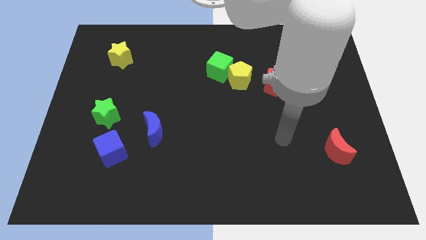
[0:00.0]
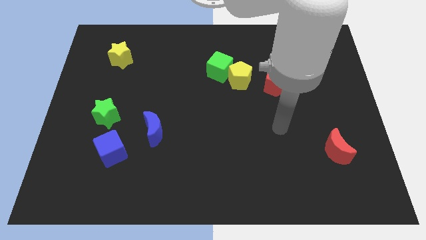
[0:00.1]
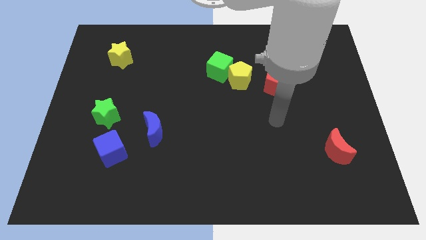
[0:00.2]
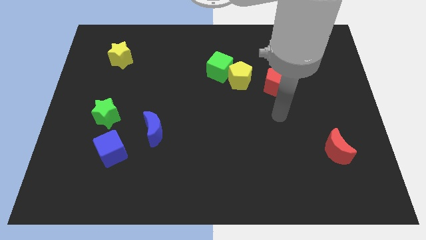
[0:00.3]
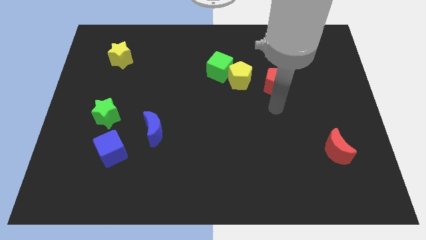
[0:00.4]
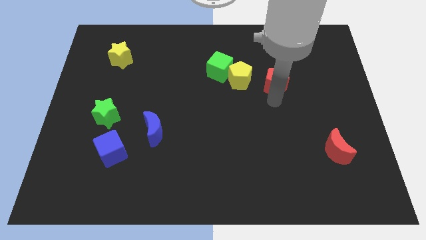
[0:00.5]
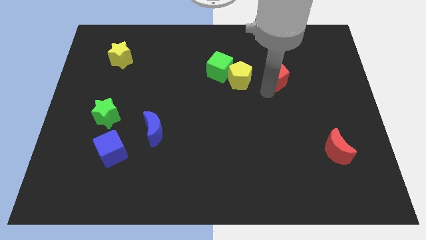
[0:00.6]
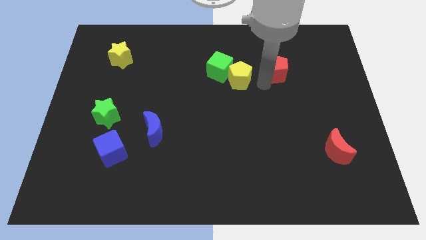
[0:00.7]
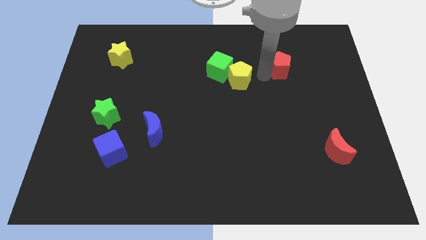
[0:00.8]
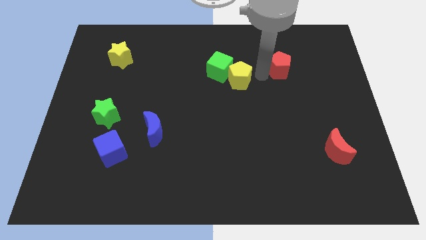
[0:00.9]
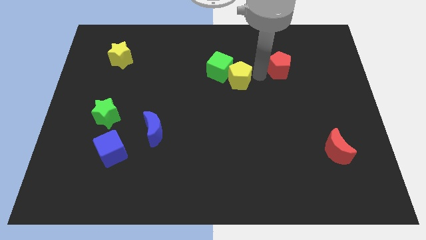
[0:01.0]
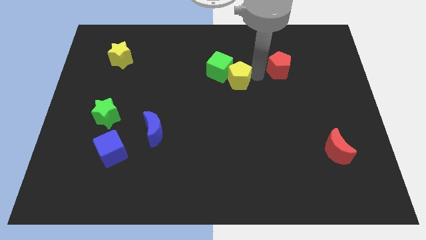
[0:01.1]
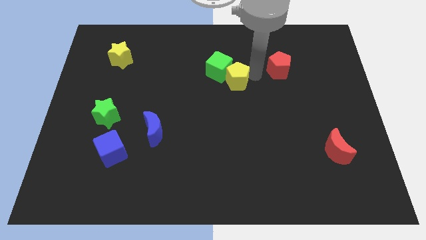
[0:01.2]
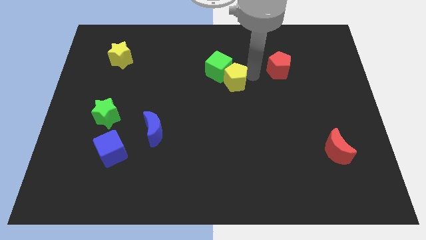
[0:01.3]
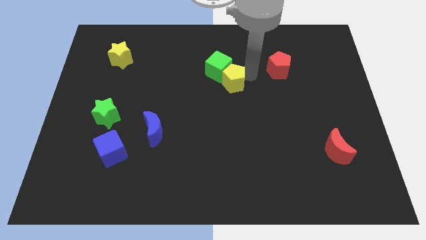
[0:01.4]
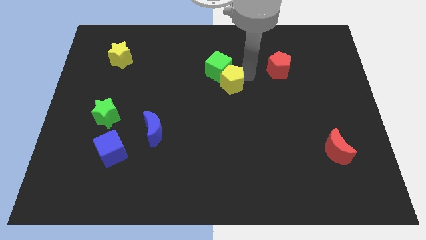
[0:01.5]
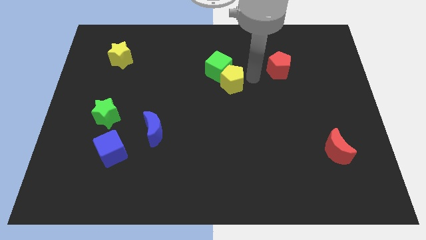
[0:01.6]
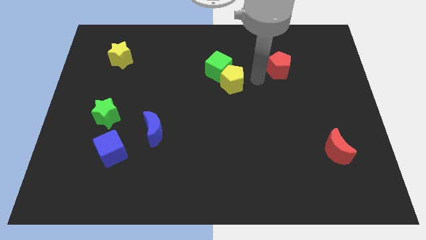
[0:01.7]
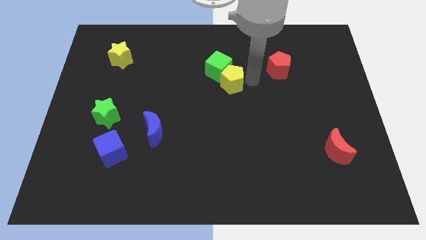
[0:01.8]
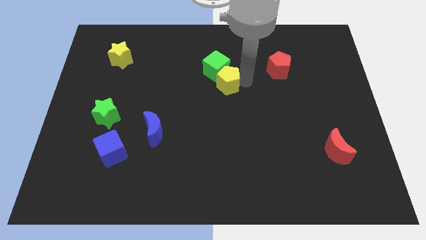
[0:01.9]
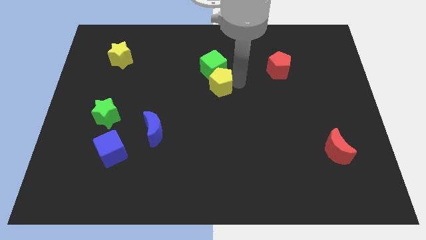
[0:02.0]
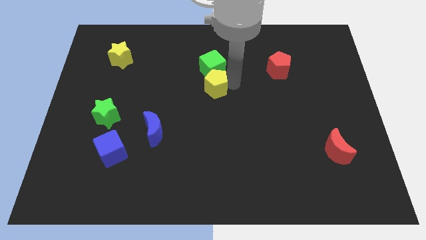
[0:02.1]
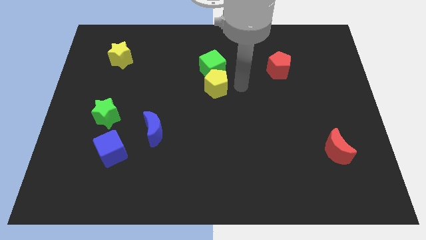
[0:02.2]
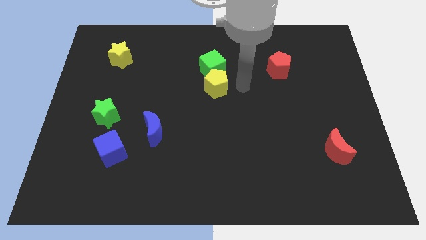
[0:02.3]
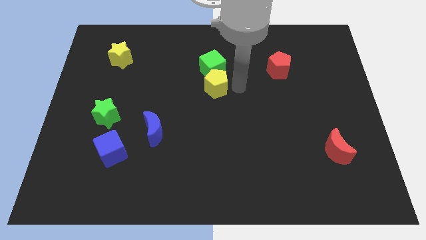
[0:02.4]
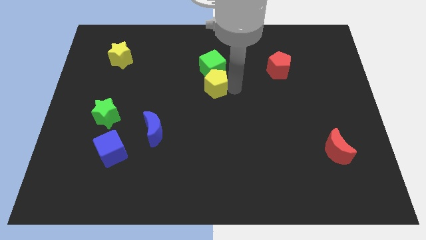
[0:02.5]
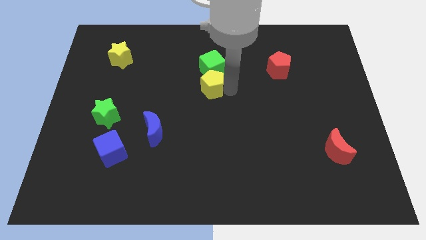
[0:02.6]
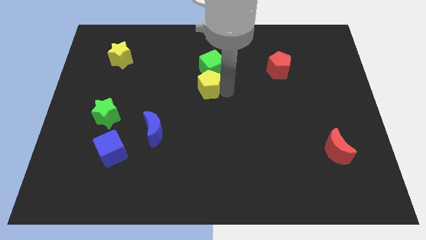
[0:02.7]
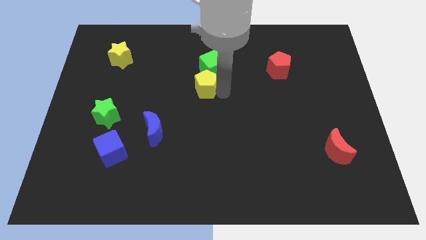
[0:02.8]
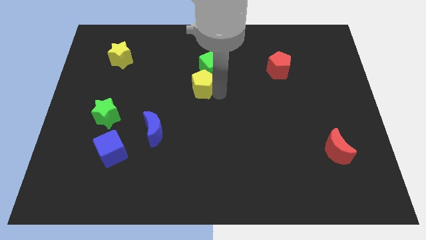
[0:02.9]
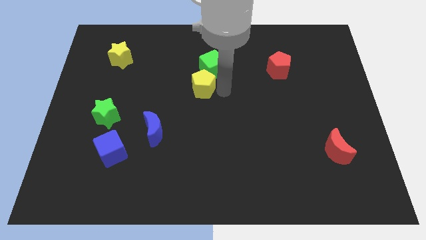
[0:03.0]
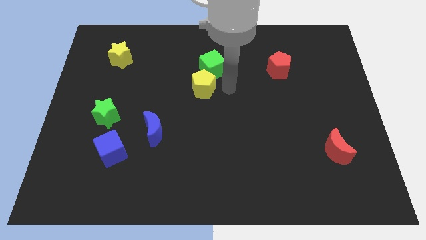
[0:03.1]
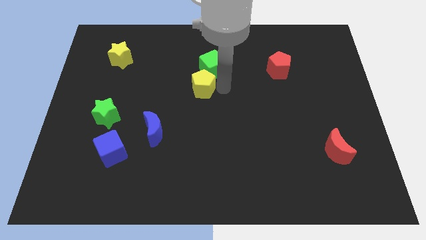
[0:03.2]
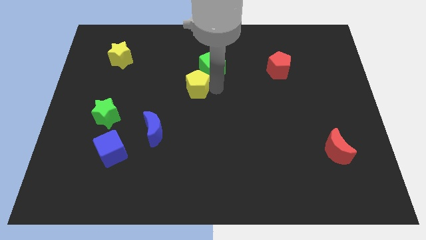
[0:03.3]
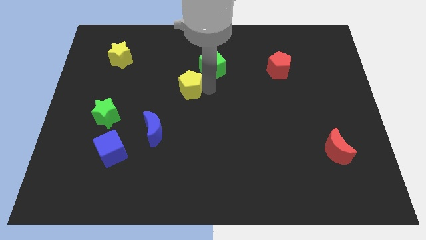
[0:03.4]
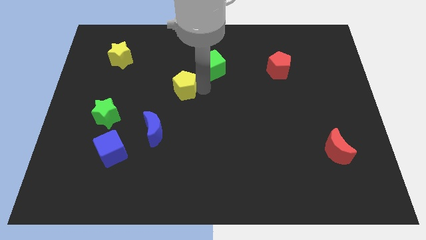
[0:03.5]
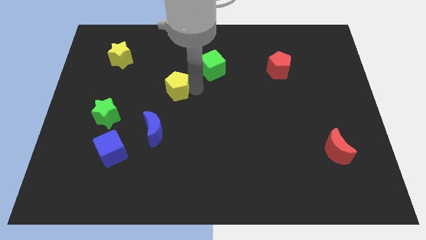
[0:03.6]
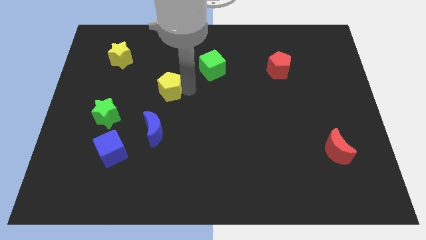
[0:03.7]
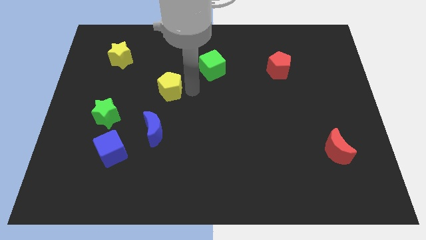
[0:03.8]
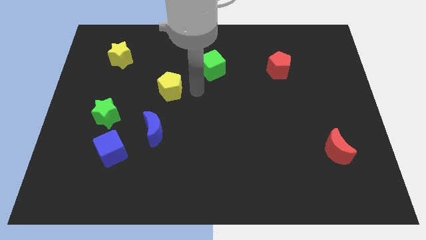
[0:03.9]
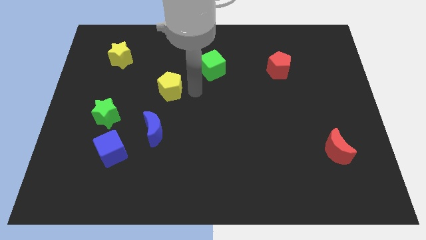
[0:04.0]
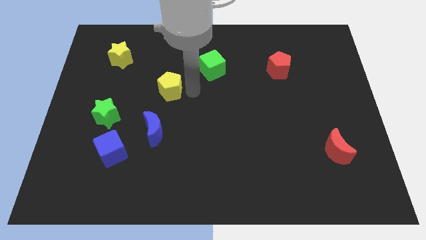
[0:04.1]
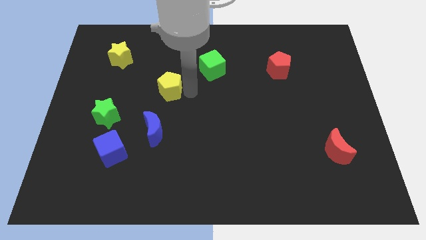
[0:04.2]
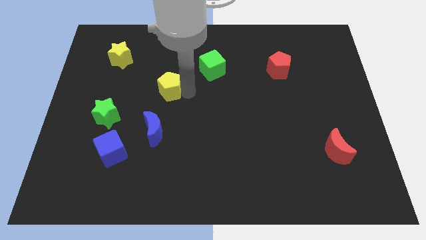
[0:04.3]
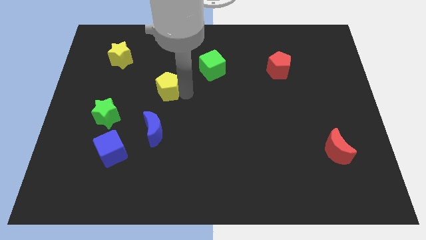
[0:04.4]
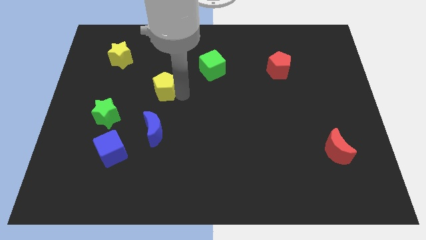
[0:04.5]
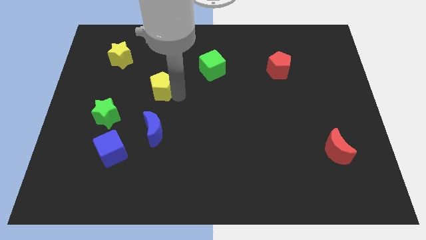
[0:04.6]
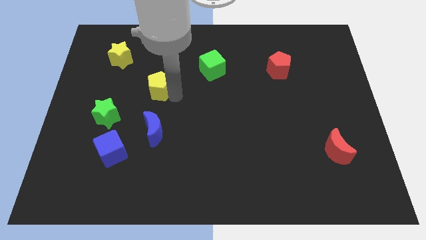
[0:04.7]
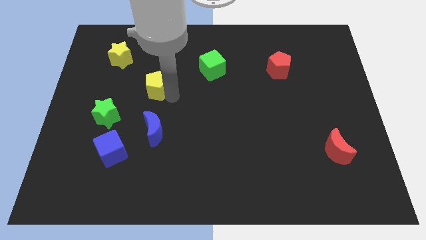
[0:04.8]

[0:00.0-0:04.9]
push the yellow pentagon left

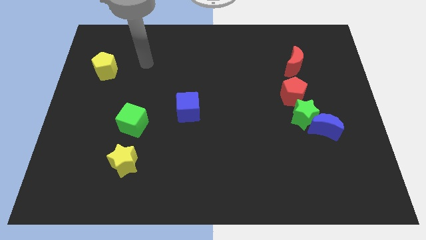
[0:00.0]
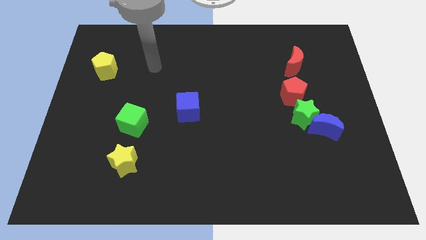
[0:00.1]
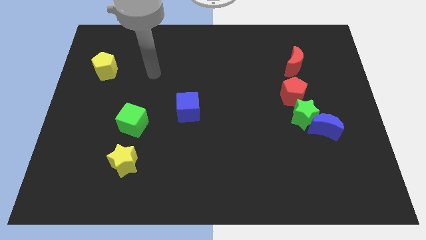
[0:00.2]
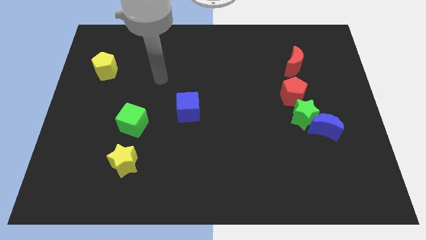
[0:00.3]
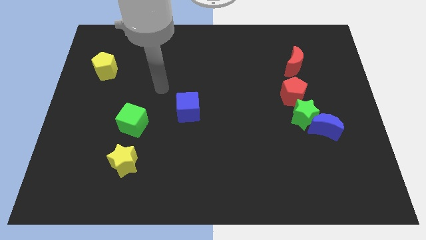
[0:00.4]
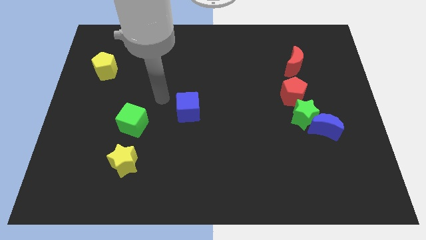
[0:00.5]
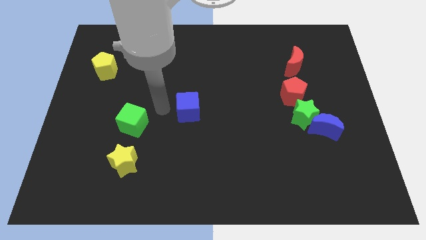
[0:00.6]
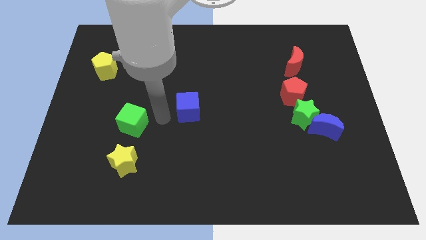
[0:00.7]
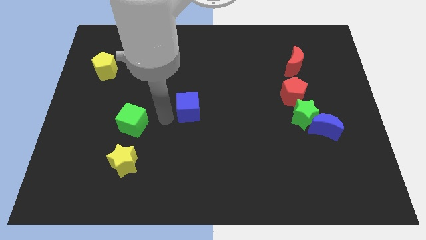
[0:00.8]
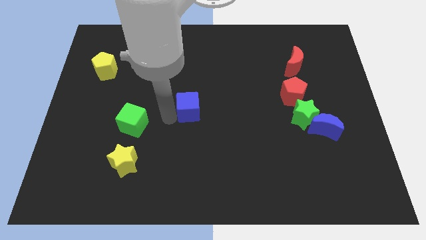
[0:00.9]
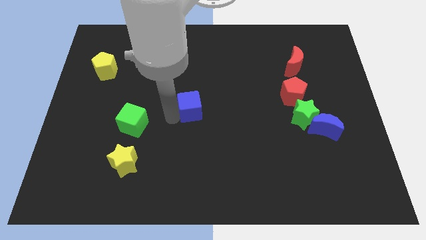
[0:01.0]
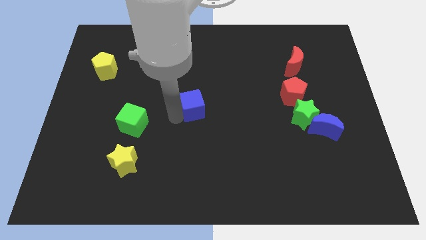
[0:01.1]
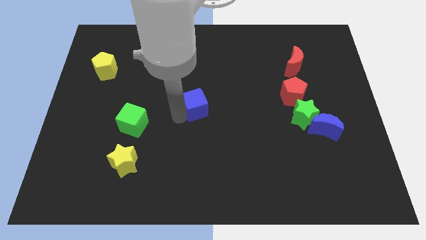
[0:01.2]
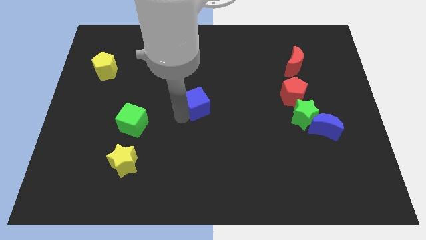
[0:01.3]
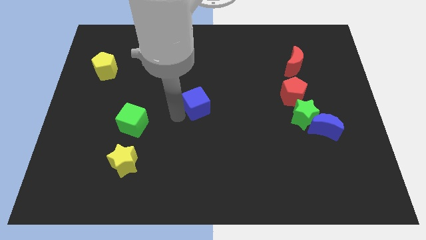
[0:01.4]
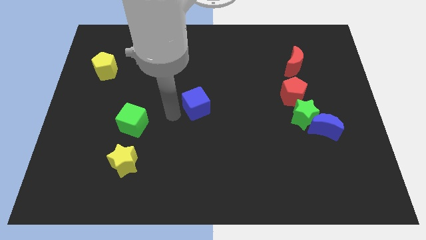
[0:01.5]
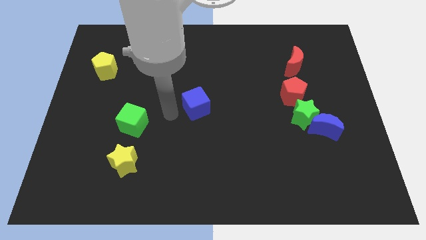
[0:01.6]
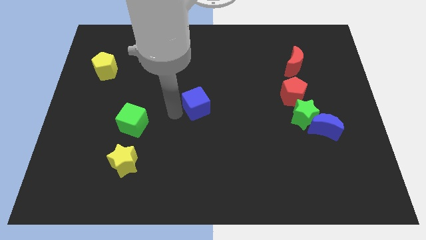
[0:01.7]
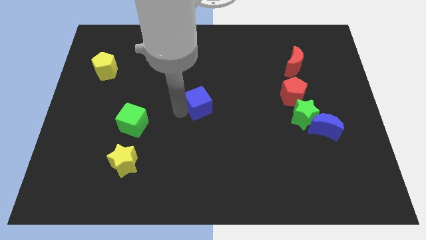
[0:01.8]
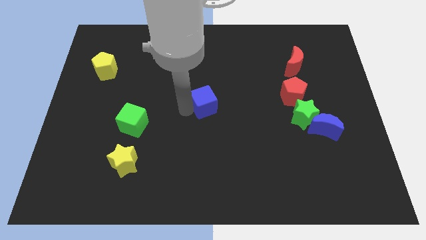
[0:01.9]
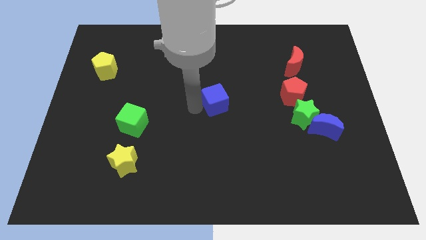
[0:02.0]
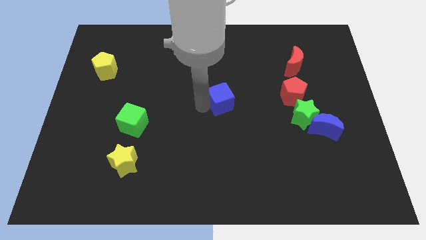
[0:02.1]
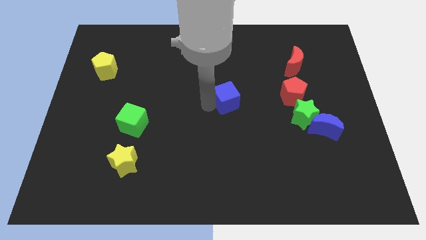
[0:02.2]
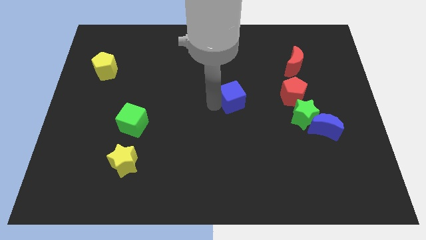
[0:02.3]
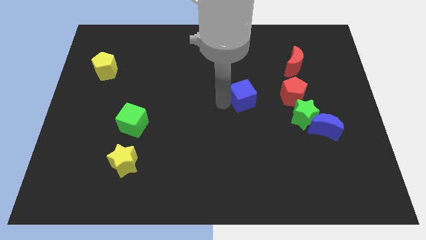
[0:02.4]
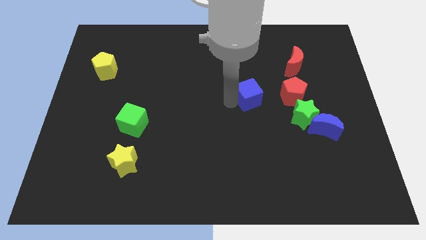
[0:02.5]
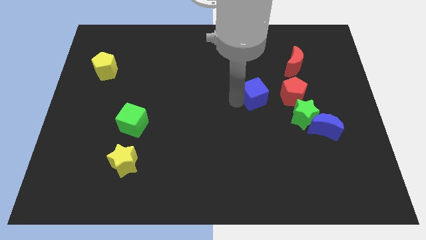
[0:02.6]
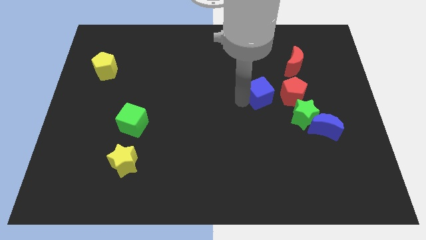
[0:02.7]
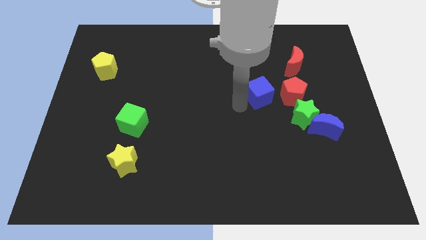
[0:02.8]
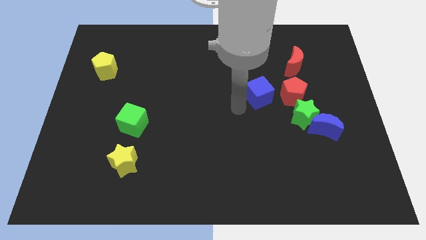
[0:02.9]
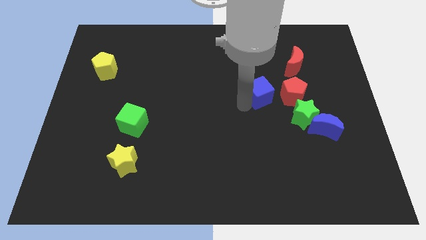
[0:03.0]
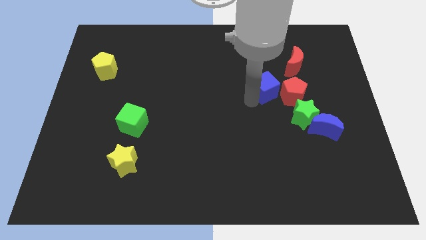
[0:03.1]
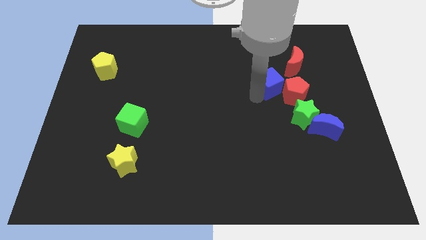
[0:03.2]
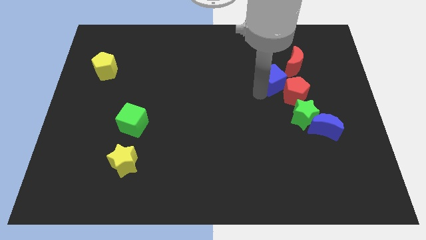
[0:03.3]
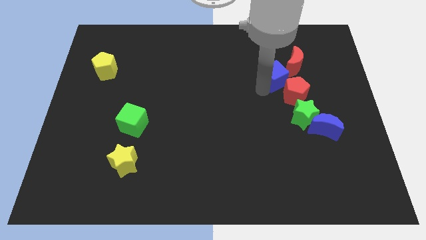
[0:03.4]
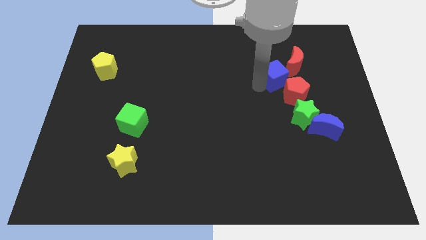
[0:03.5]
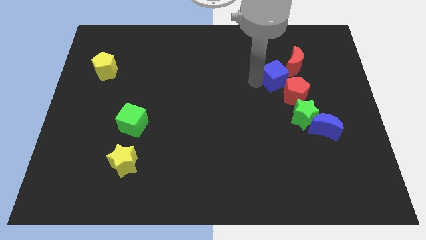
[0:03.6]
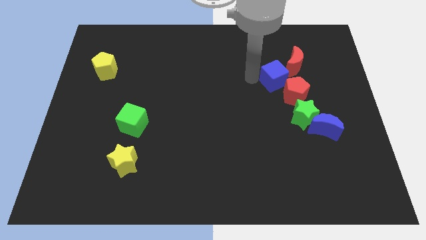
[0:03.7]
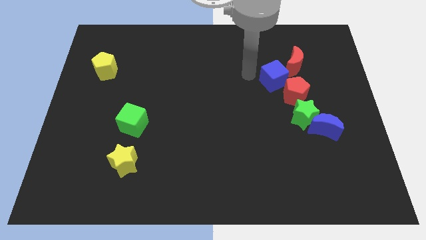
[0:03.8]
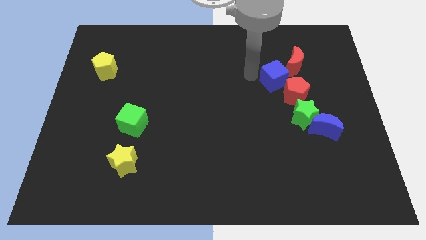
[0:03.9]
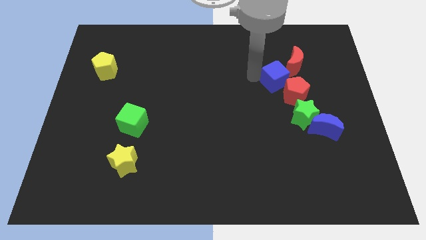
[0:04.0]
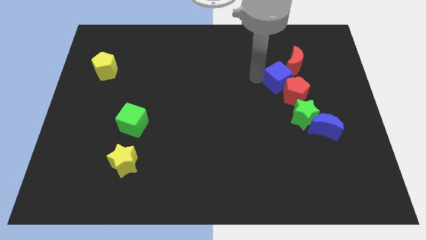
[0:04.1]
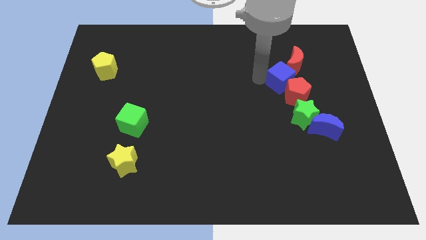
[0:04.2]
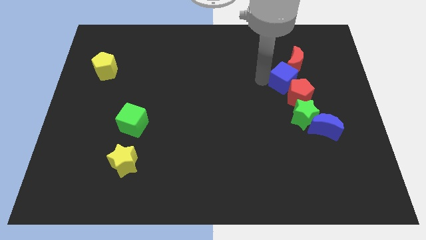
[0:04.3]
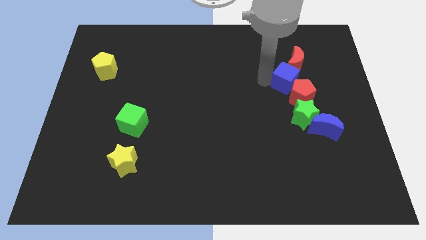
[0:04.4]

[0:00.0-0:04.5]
push the blue cube right
